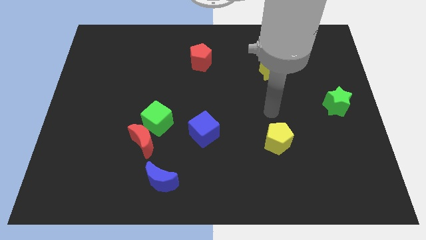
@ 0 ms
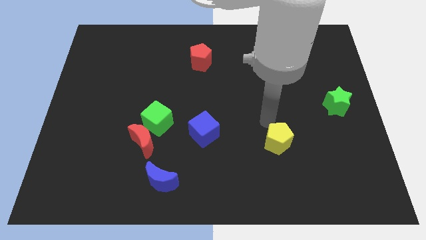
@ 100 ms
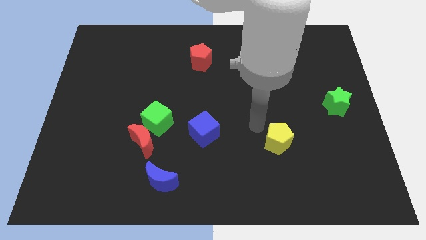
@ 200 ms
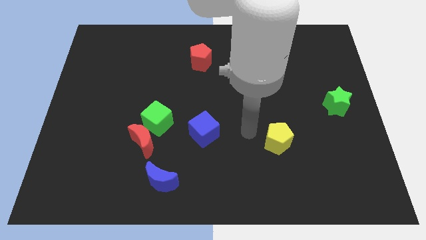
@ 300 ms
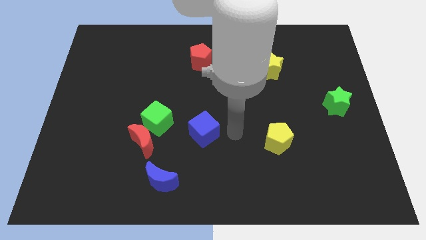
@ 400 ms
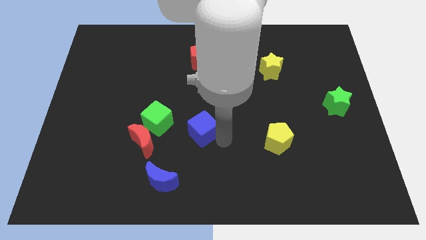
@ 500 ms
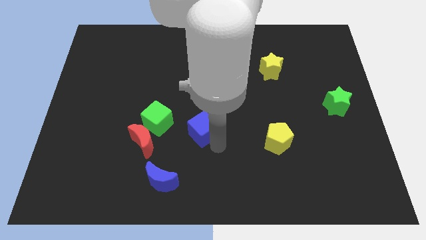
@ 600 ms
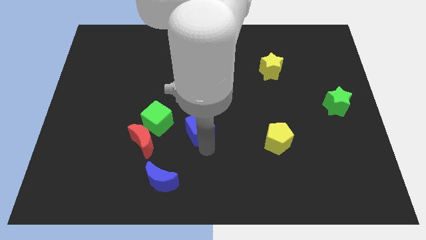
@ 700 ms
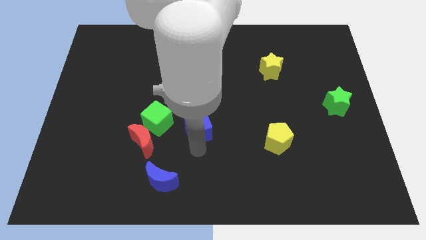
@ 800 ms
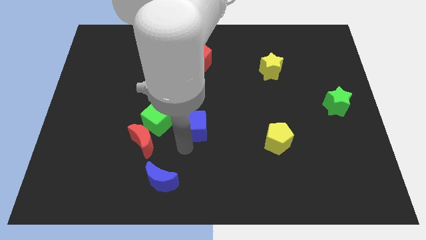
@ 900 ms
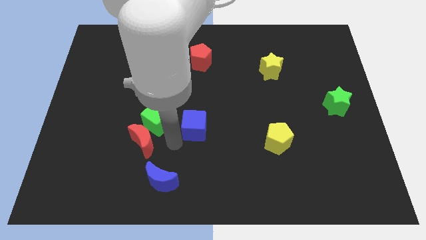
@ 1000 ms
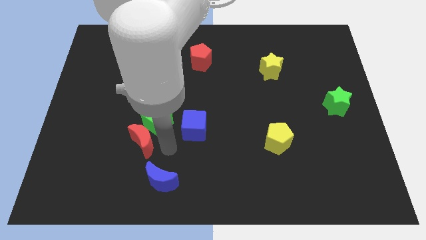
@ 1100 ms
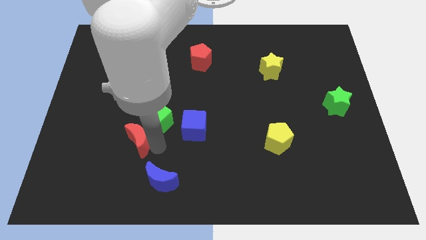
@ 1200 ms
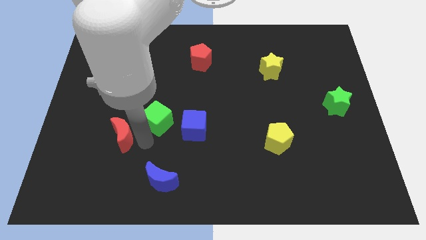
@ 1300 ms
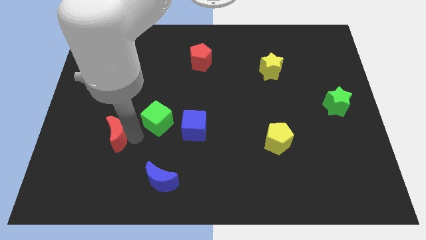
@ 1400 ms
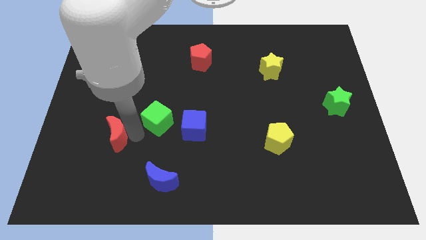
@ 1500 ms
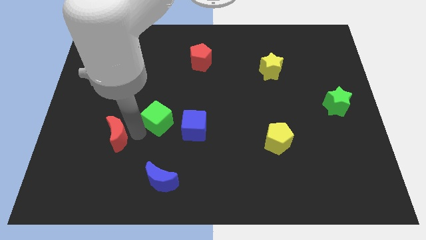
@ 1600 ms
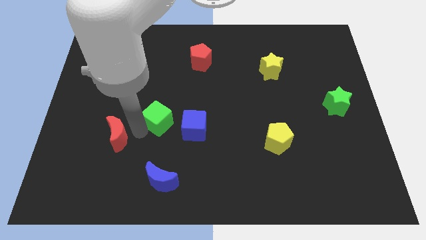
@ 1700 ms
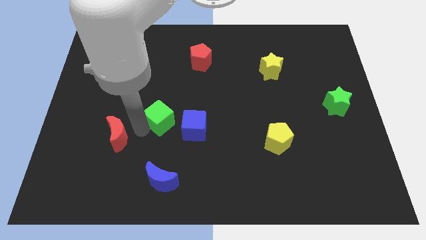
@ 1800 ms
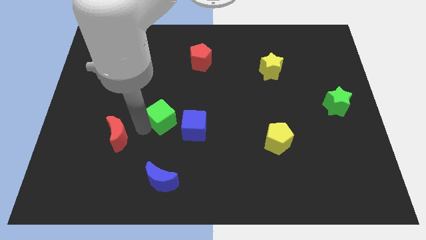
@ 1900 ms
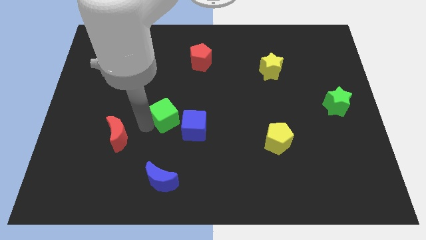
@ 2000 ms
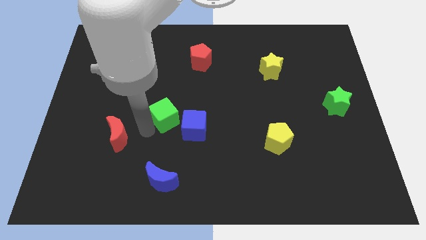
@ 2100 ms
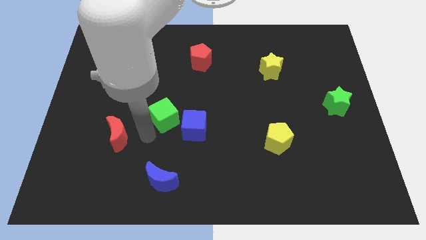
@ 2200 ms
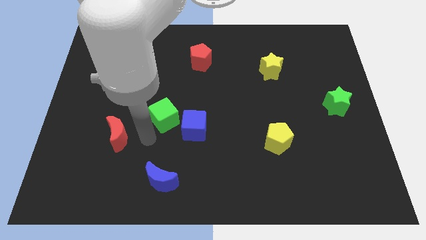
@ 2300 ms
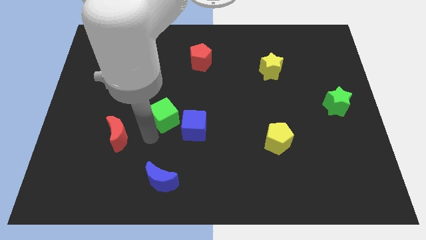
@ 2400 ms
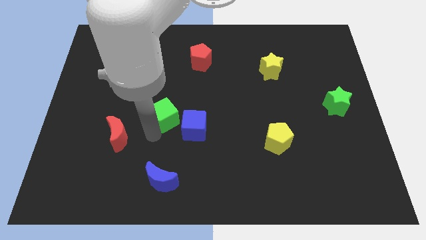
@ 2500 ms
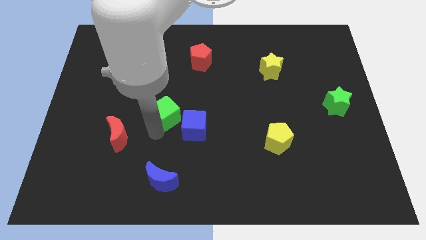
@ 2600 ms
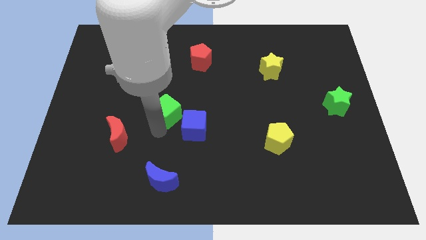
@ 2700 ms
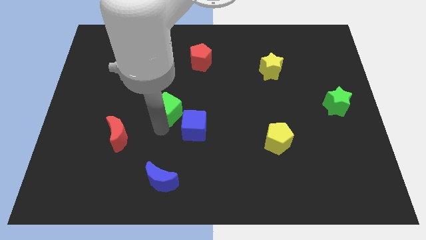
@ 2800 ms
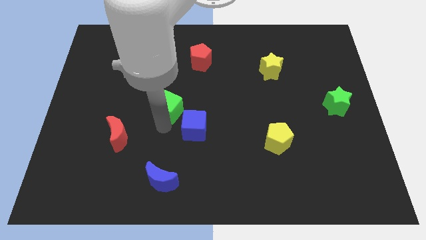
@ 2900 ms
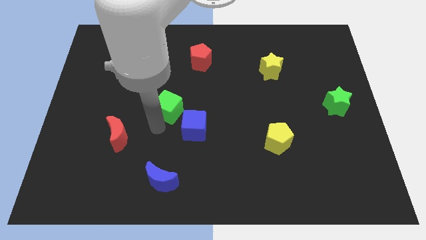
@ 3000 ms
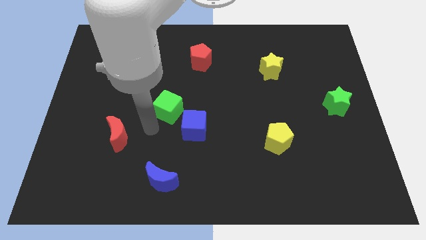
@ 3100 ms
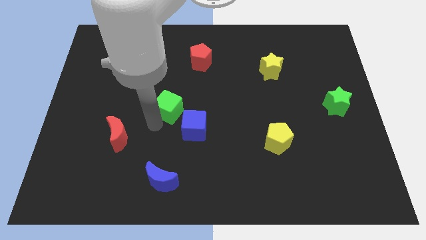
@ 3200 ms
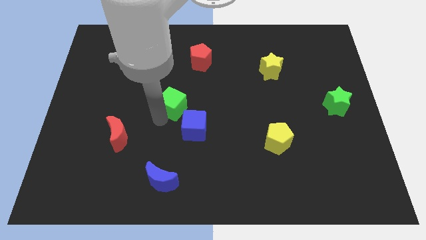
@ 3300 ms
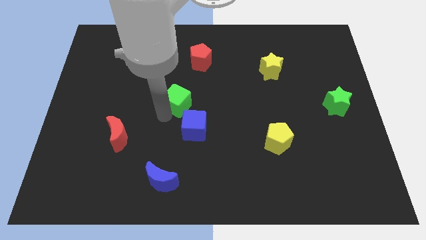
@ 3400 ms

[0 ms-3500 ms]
move the green cube upwards and then right a bit

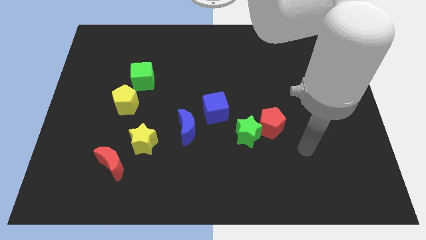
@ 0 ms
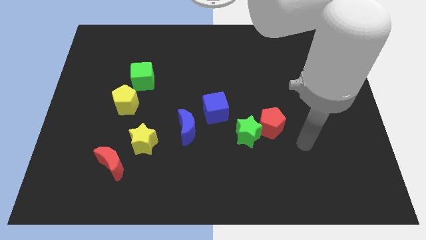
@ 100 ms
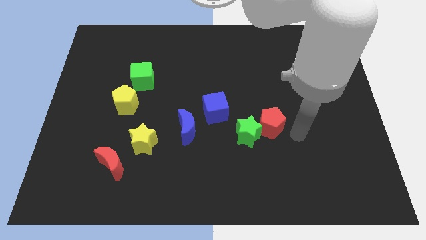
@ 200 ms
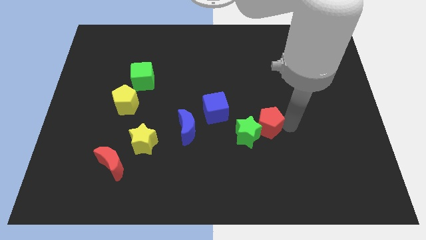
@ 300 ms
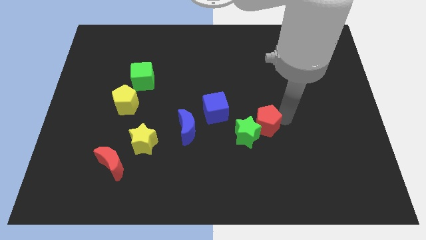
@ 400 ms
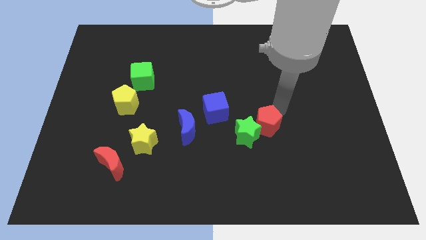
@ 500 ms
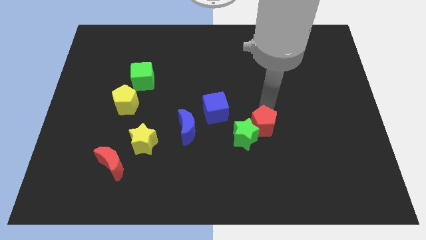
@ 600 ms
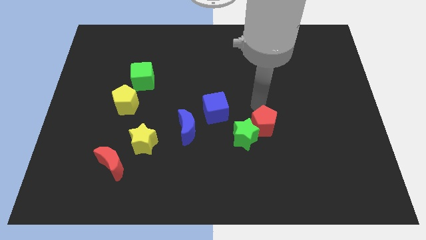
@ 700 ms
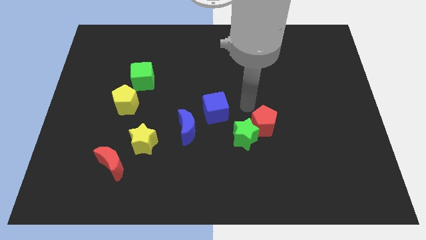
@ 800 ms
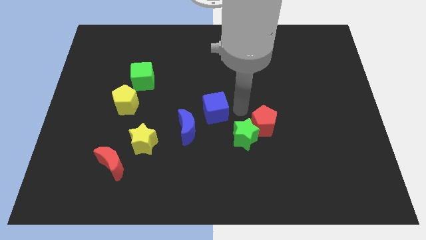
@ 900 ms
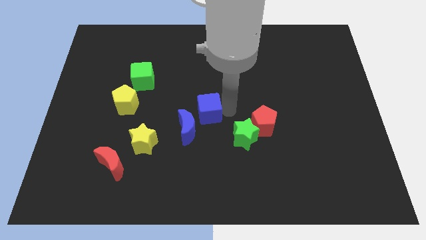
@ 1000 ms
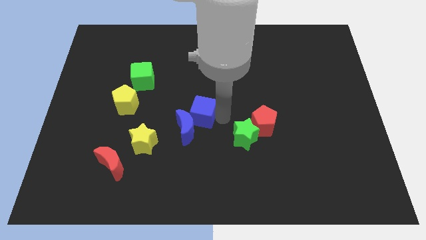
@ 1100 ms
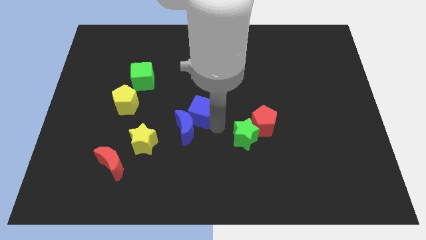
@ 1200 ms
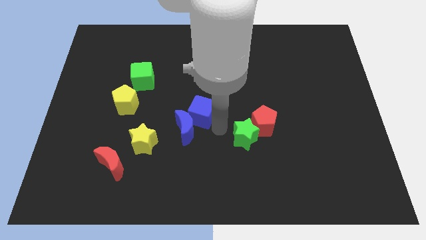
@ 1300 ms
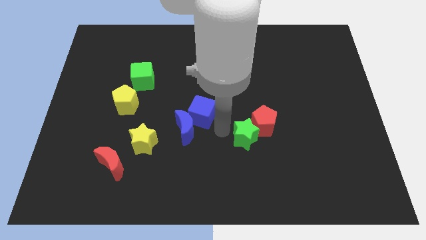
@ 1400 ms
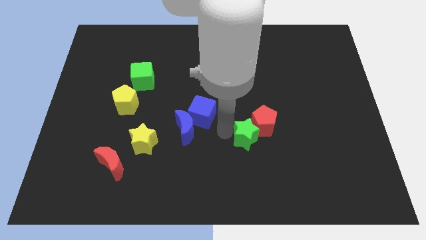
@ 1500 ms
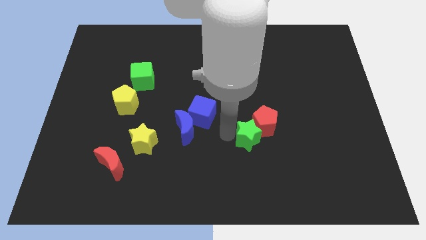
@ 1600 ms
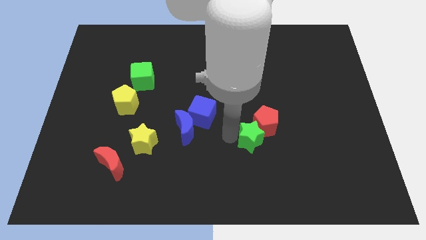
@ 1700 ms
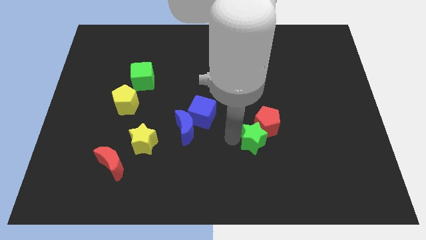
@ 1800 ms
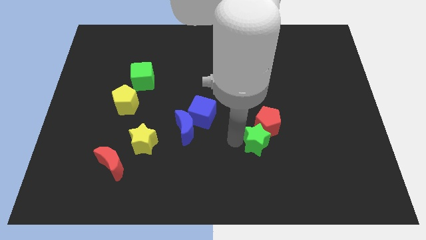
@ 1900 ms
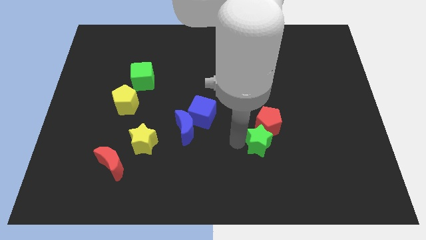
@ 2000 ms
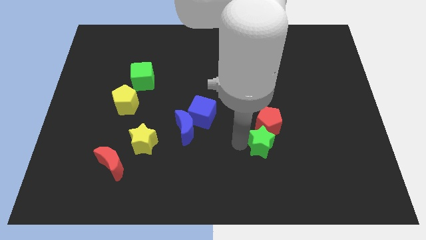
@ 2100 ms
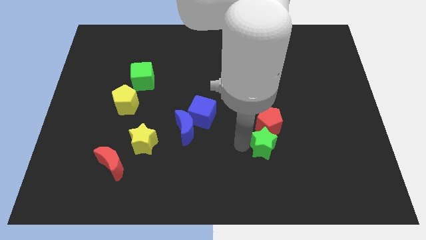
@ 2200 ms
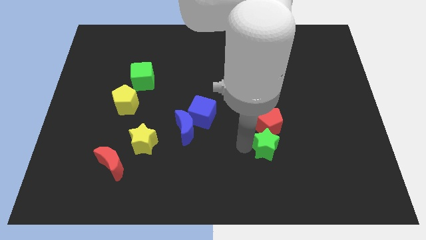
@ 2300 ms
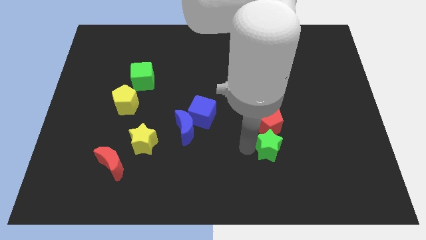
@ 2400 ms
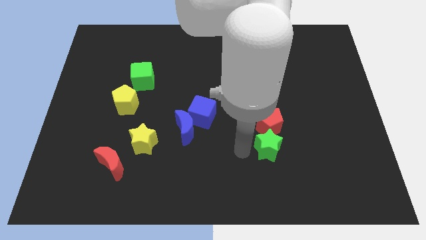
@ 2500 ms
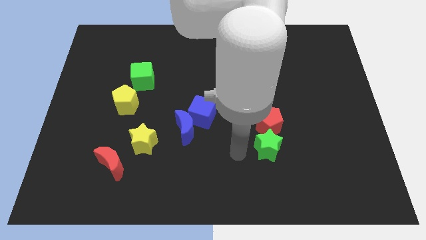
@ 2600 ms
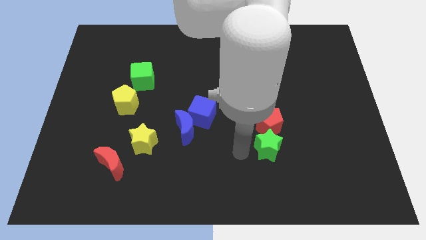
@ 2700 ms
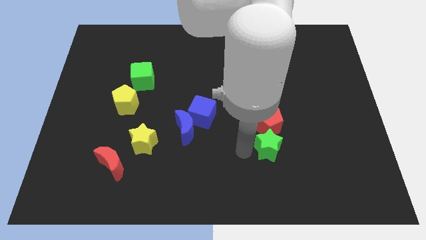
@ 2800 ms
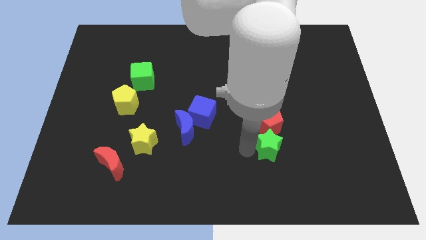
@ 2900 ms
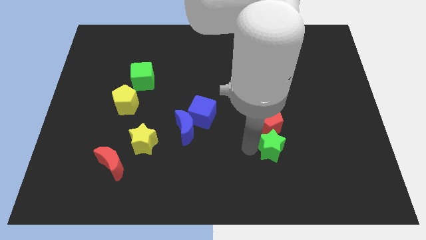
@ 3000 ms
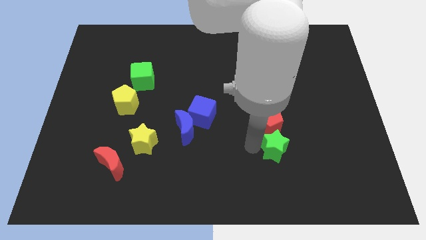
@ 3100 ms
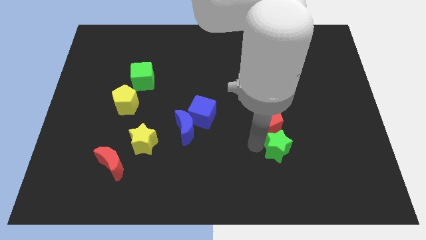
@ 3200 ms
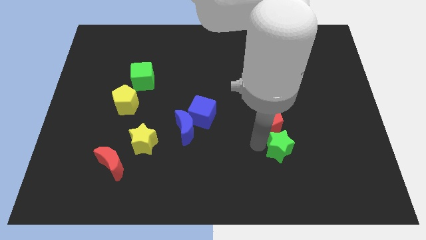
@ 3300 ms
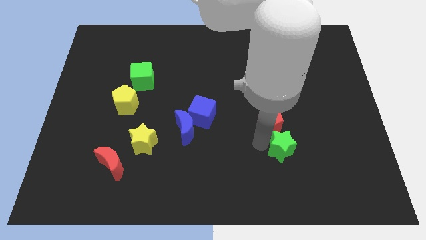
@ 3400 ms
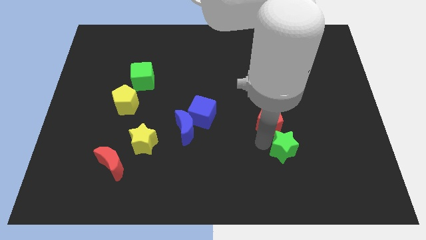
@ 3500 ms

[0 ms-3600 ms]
slightly move the green star right

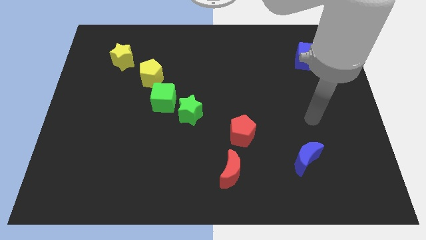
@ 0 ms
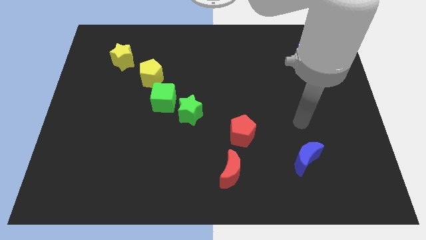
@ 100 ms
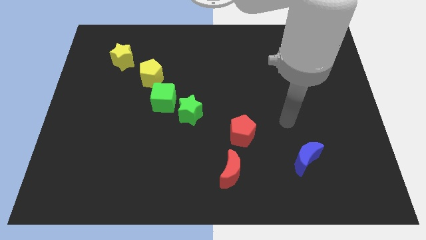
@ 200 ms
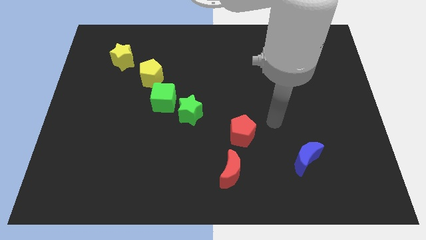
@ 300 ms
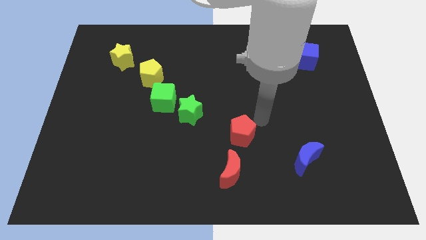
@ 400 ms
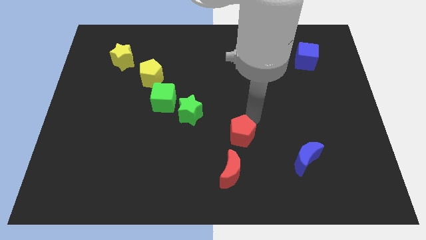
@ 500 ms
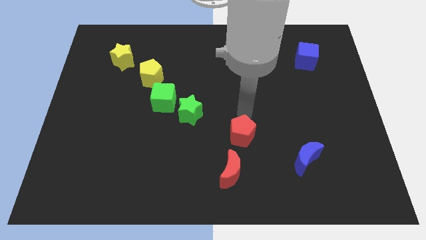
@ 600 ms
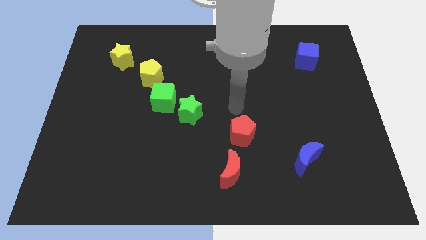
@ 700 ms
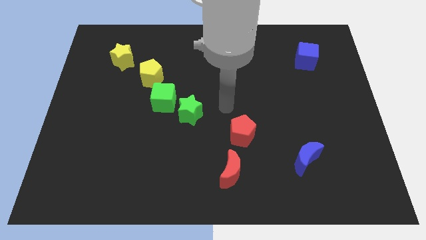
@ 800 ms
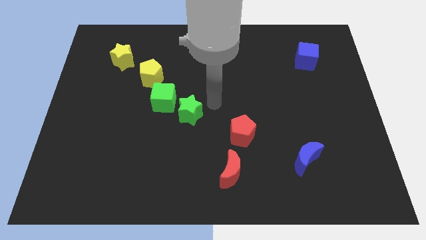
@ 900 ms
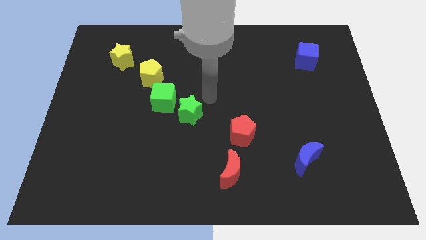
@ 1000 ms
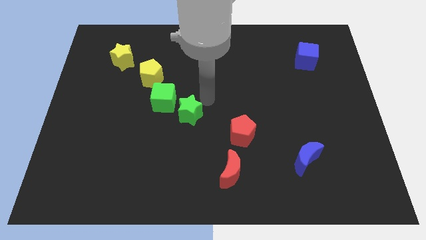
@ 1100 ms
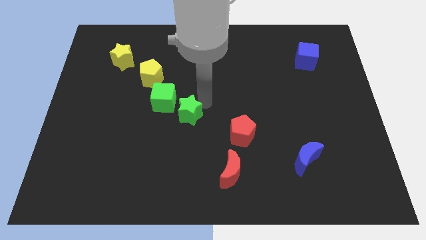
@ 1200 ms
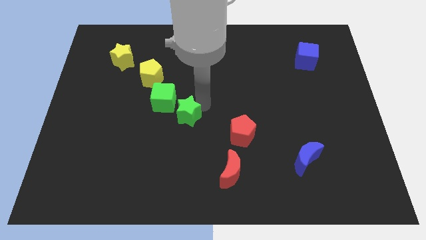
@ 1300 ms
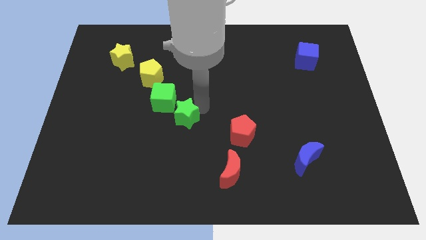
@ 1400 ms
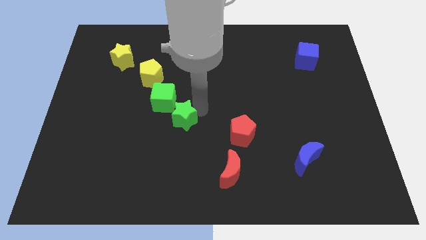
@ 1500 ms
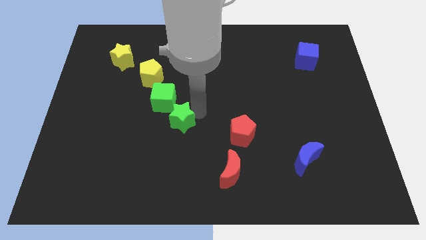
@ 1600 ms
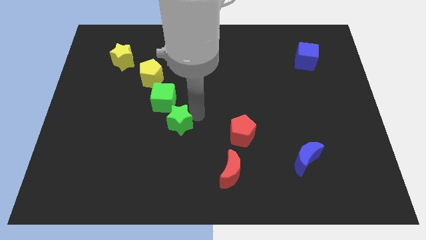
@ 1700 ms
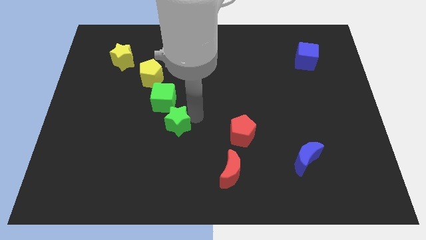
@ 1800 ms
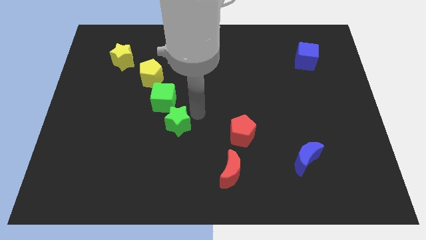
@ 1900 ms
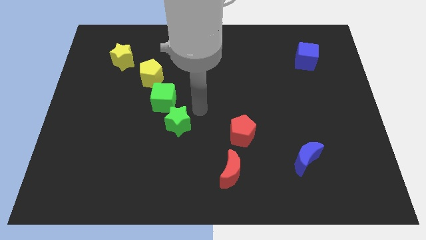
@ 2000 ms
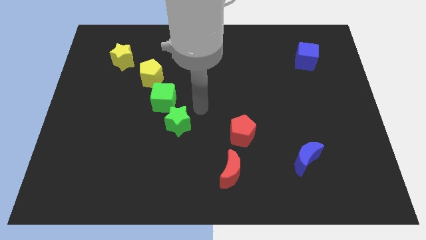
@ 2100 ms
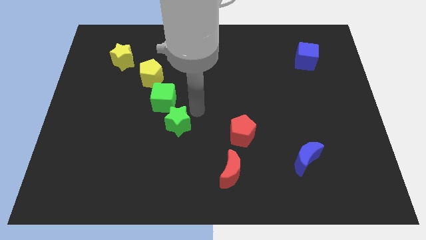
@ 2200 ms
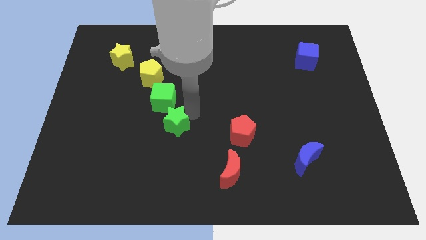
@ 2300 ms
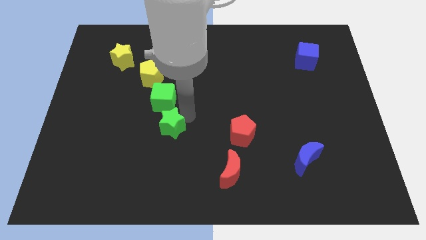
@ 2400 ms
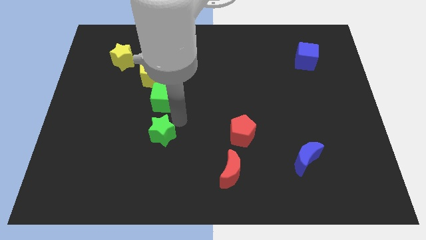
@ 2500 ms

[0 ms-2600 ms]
slightly push the green star downwards and to the left
